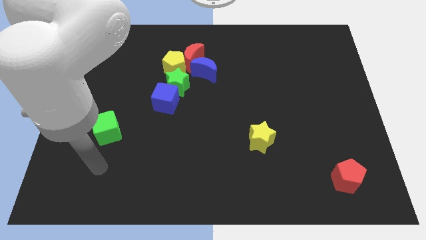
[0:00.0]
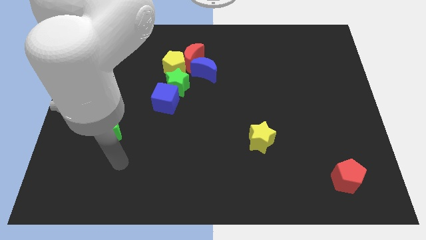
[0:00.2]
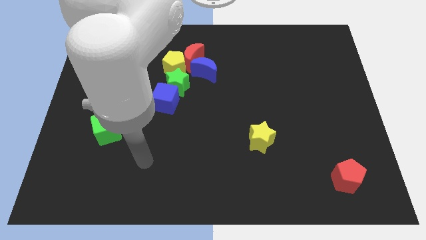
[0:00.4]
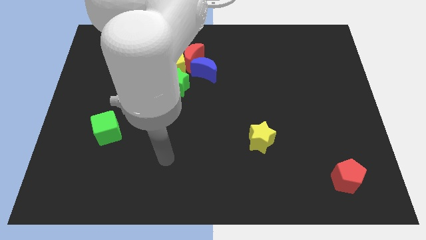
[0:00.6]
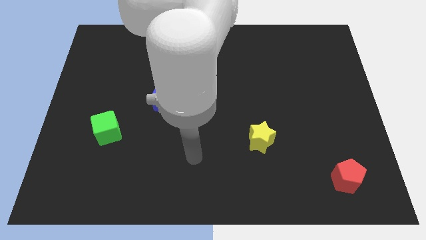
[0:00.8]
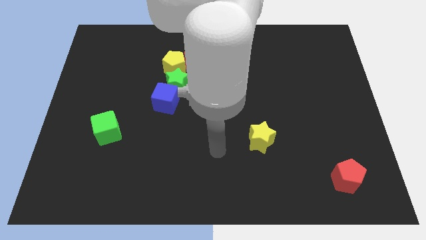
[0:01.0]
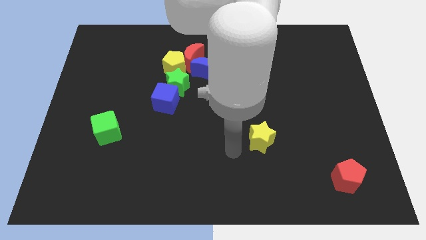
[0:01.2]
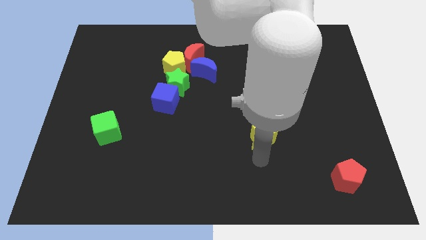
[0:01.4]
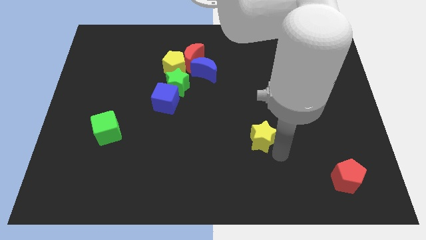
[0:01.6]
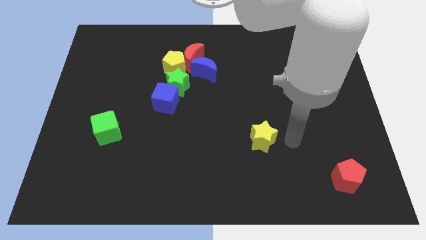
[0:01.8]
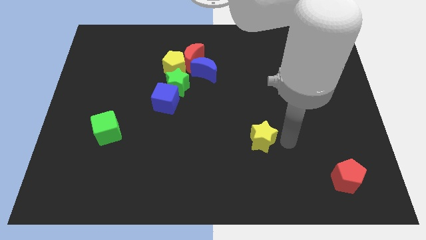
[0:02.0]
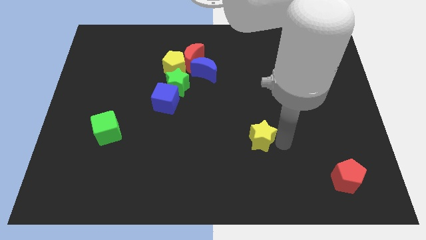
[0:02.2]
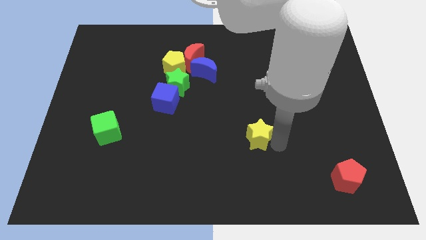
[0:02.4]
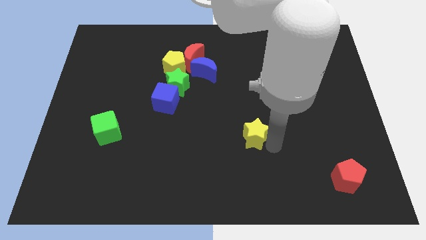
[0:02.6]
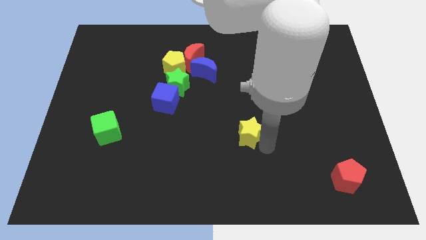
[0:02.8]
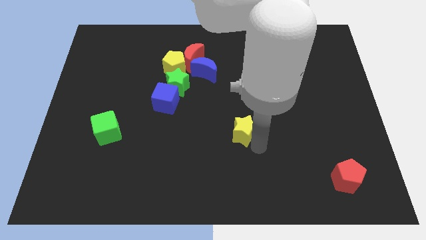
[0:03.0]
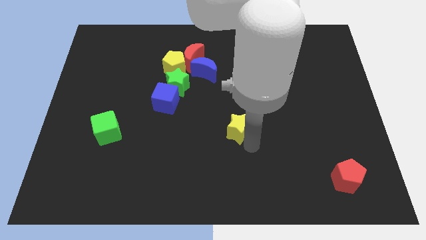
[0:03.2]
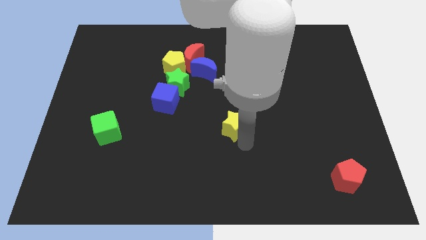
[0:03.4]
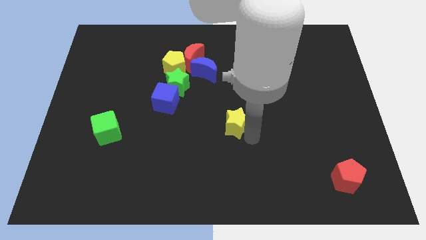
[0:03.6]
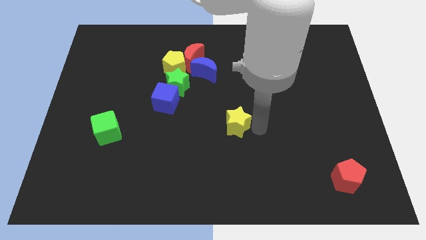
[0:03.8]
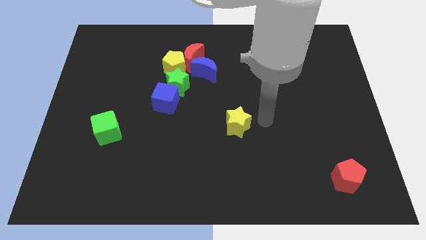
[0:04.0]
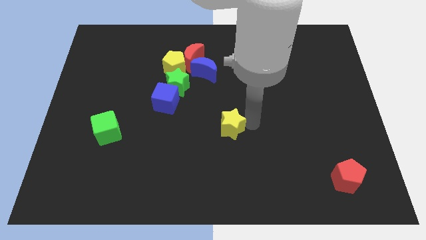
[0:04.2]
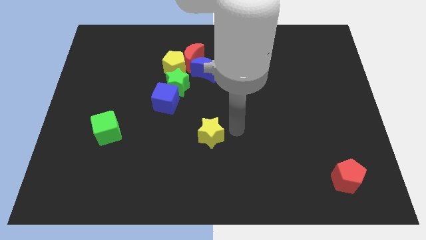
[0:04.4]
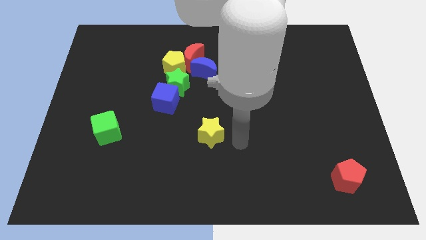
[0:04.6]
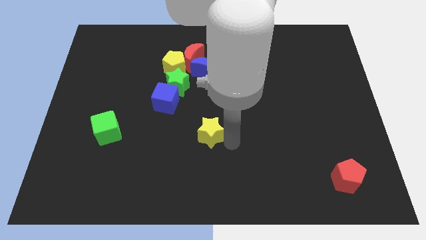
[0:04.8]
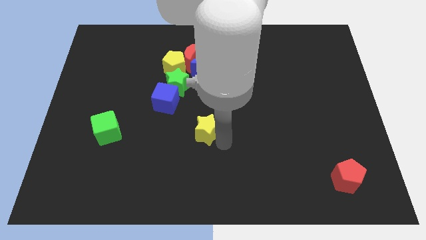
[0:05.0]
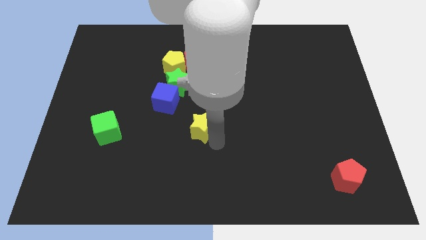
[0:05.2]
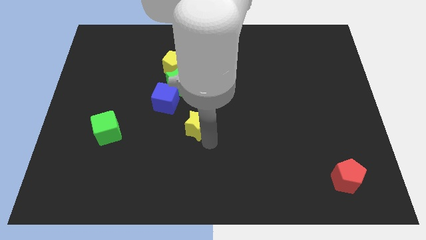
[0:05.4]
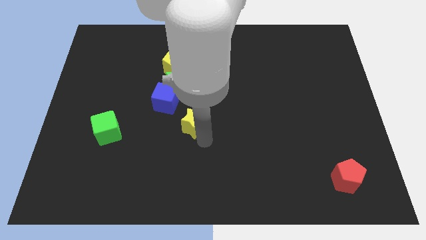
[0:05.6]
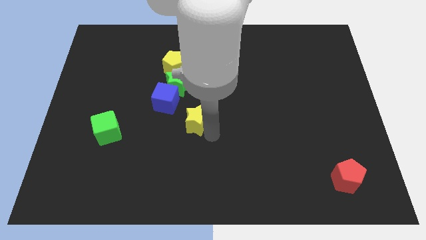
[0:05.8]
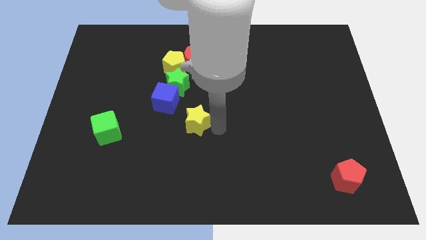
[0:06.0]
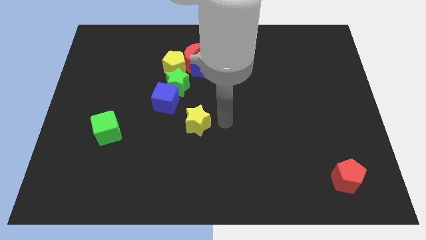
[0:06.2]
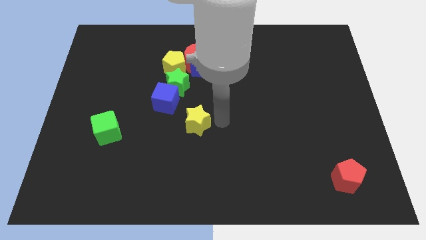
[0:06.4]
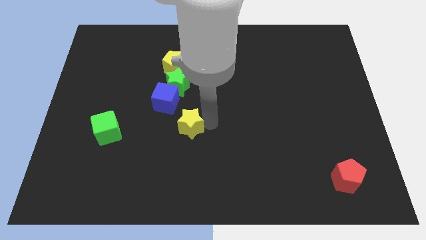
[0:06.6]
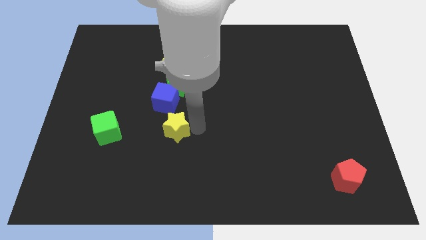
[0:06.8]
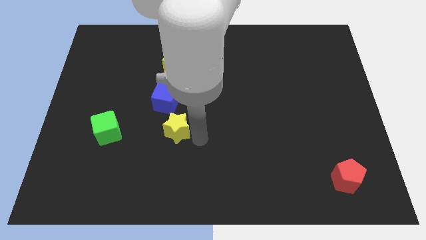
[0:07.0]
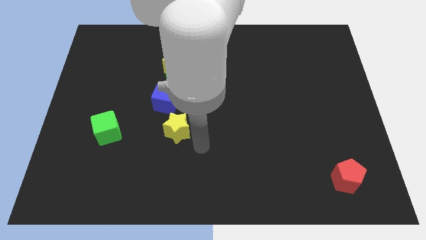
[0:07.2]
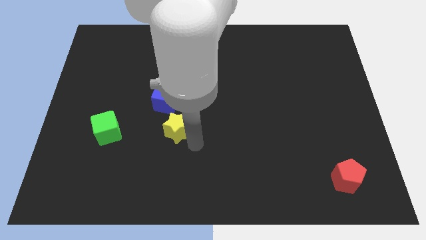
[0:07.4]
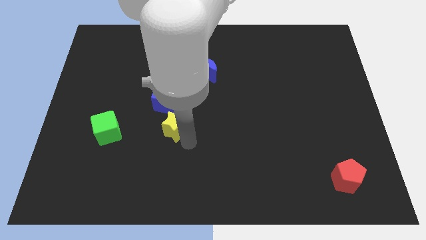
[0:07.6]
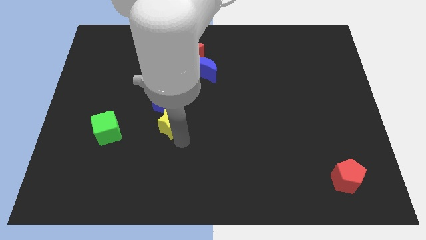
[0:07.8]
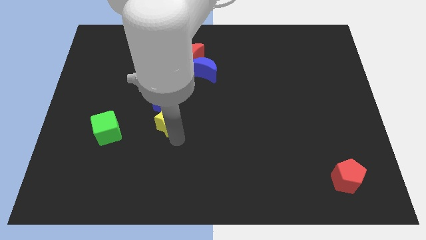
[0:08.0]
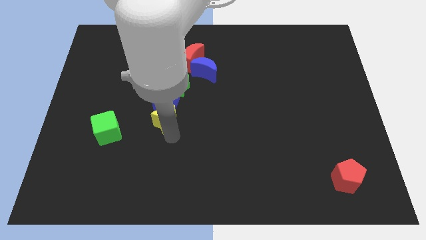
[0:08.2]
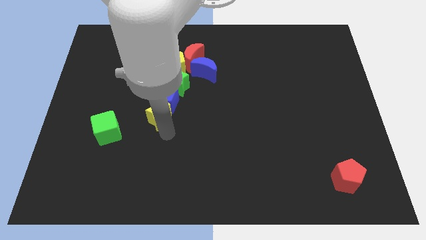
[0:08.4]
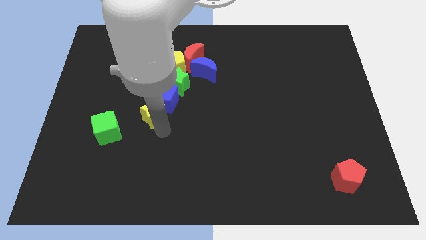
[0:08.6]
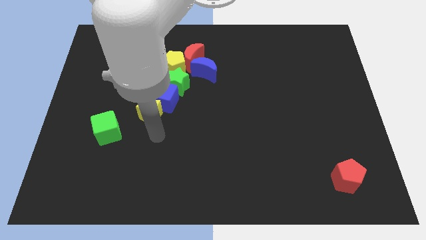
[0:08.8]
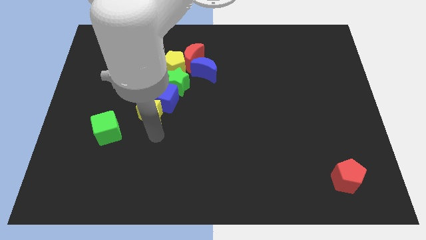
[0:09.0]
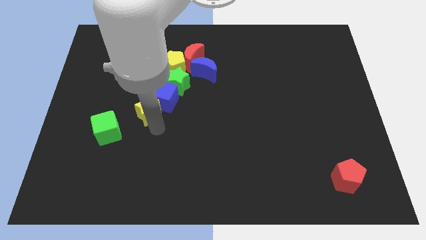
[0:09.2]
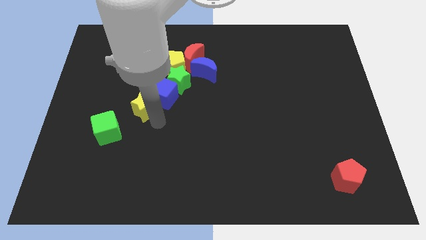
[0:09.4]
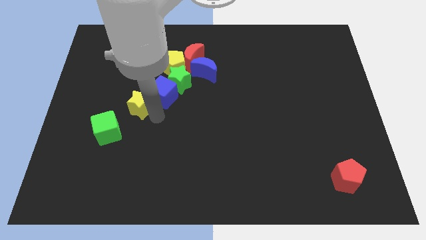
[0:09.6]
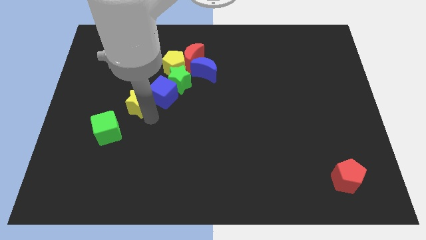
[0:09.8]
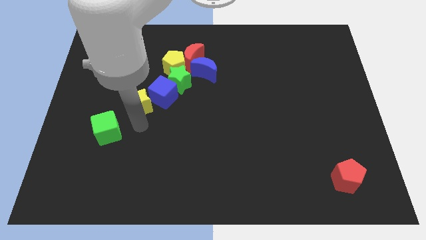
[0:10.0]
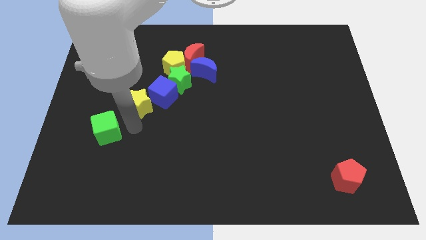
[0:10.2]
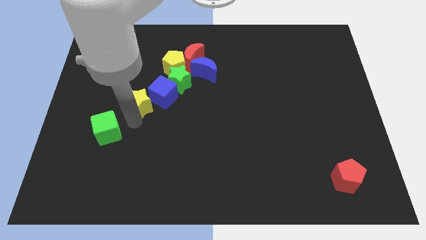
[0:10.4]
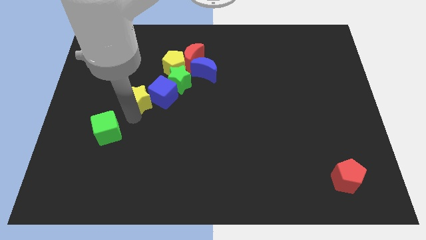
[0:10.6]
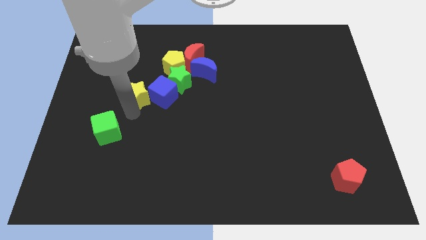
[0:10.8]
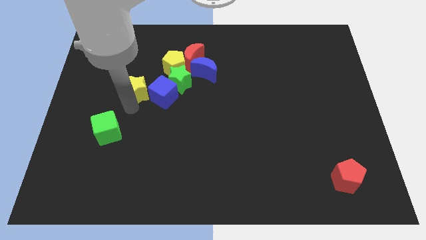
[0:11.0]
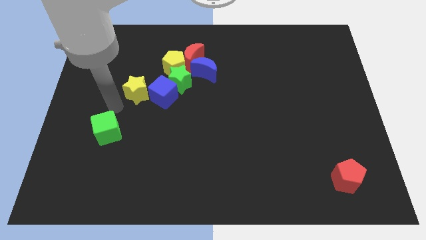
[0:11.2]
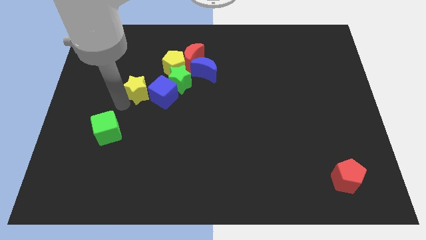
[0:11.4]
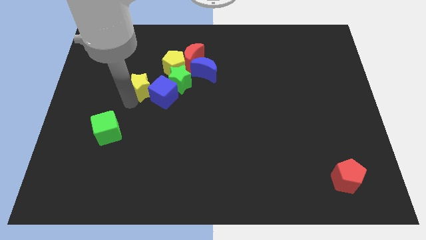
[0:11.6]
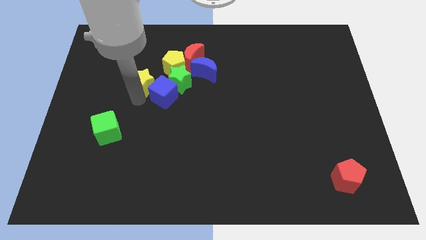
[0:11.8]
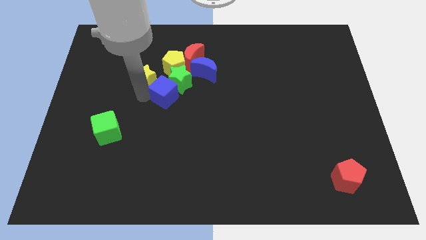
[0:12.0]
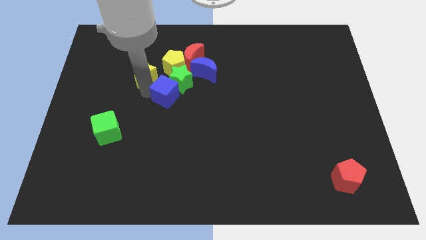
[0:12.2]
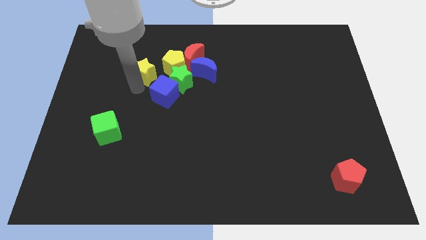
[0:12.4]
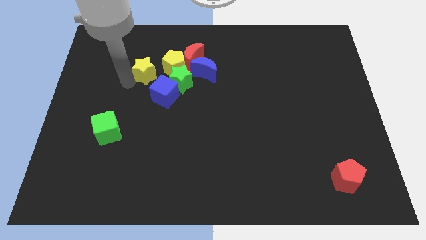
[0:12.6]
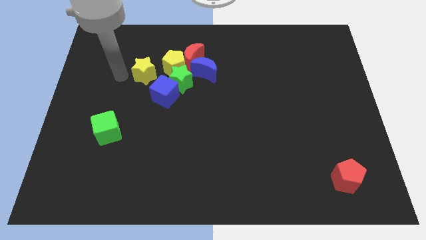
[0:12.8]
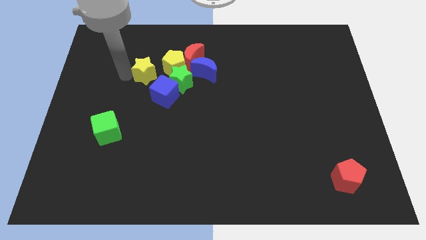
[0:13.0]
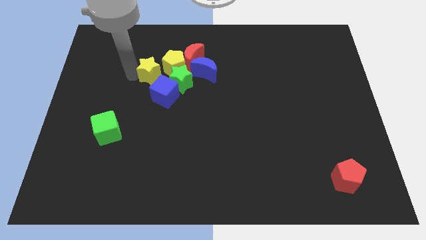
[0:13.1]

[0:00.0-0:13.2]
put the yellow star to the bottom left of the red moon
